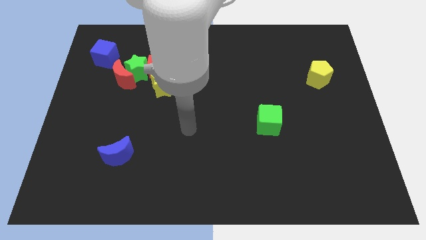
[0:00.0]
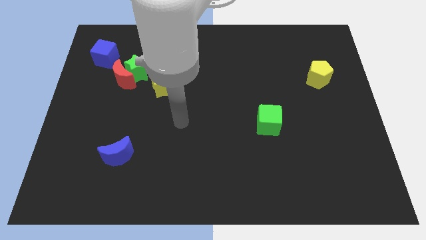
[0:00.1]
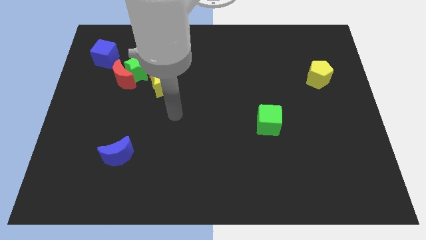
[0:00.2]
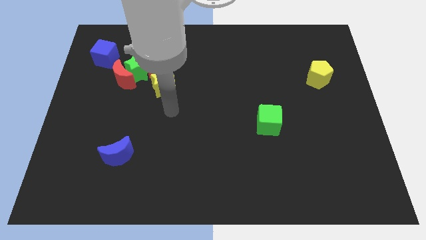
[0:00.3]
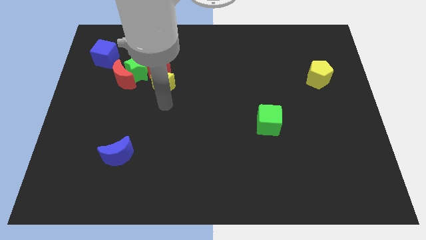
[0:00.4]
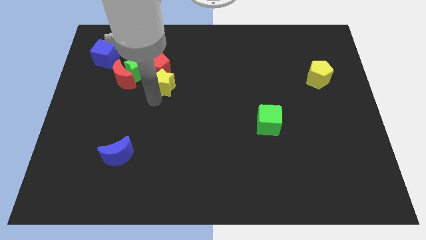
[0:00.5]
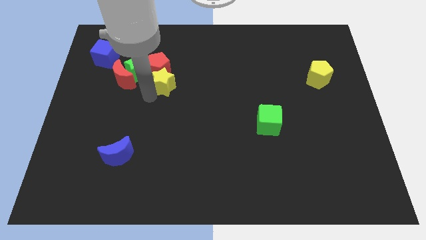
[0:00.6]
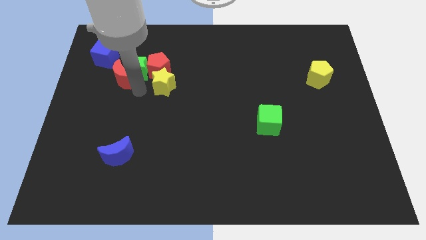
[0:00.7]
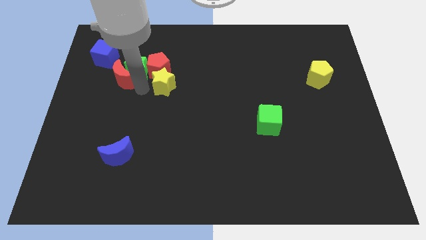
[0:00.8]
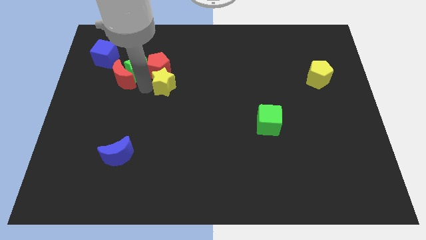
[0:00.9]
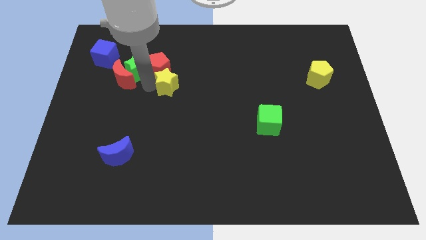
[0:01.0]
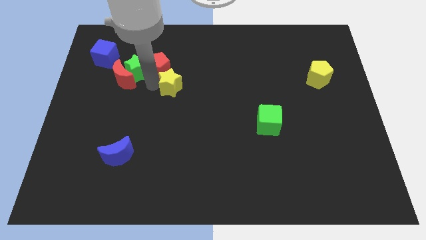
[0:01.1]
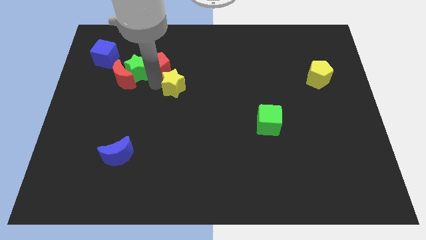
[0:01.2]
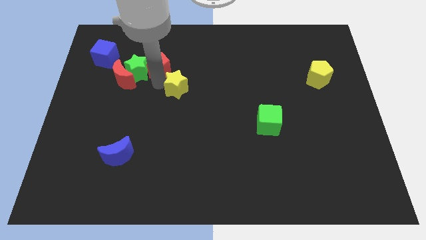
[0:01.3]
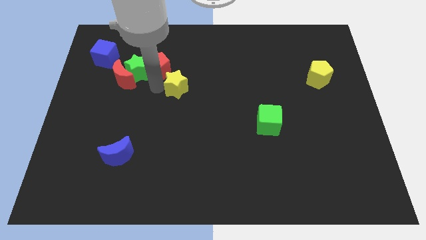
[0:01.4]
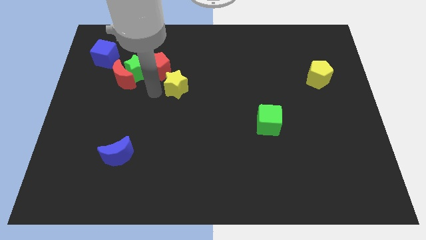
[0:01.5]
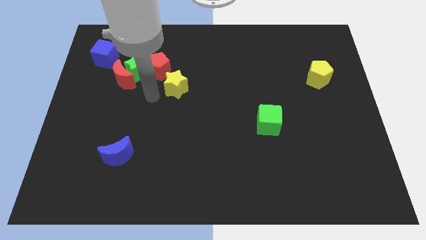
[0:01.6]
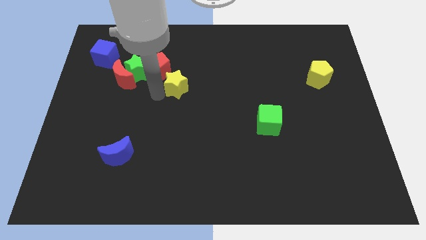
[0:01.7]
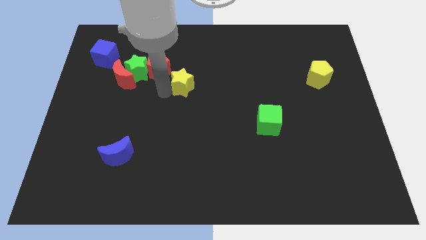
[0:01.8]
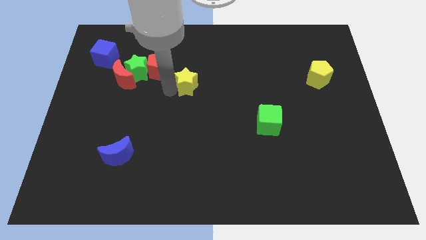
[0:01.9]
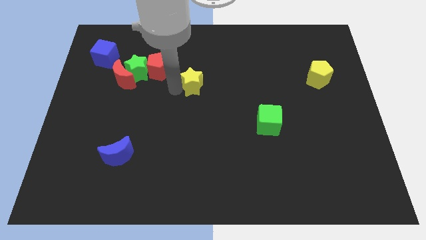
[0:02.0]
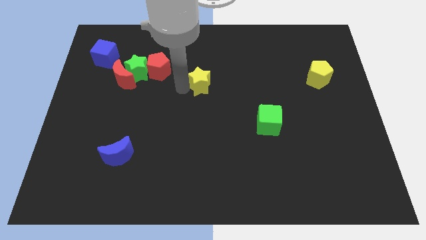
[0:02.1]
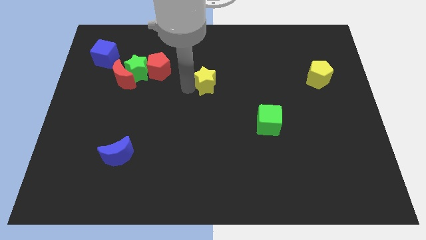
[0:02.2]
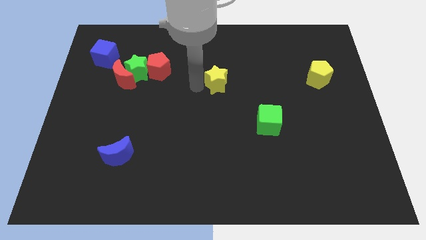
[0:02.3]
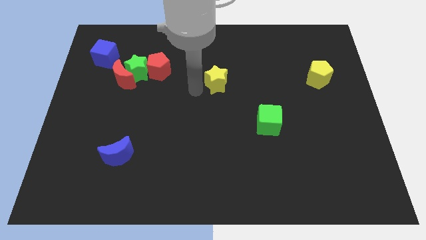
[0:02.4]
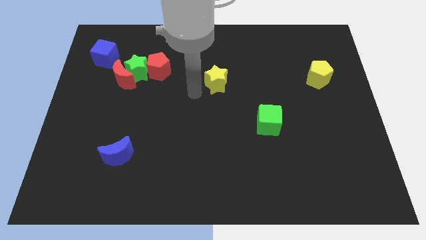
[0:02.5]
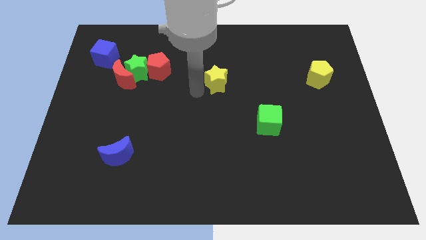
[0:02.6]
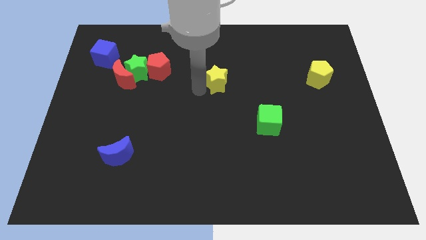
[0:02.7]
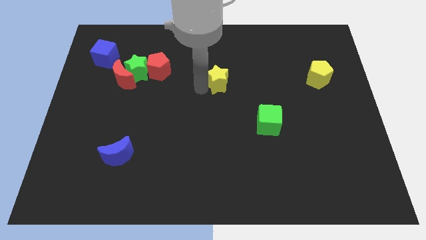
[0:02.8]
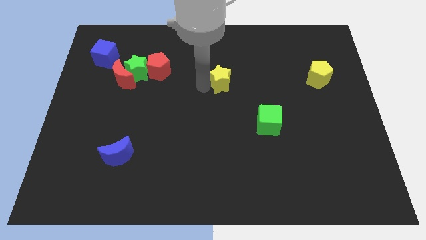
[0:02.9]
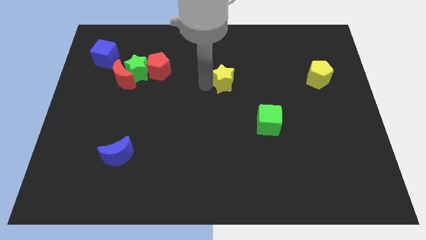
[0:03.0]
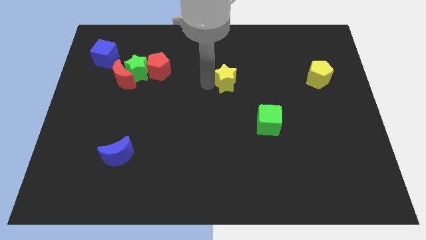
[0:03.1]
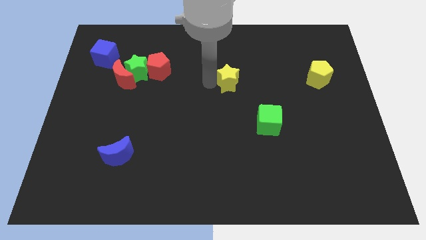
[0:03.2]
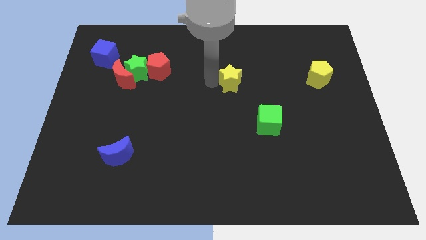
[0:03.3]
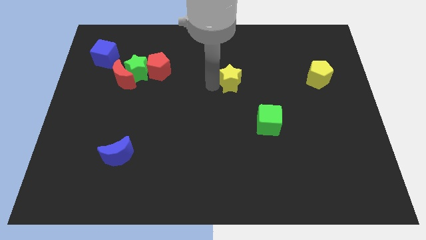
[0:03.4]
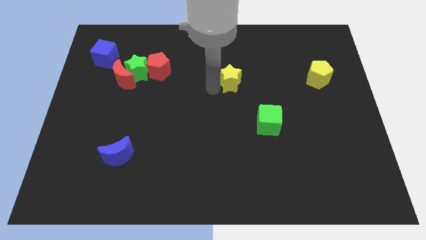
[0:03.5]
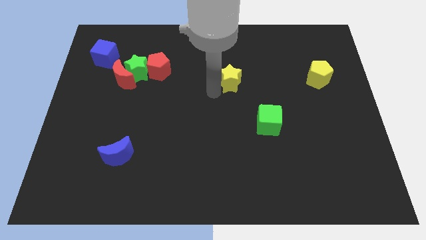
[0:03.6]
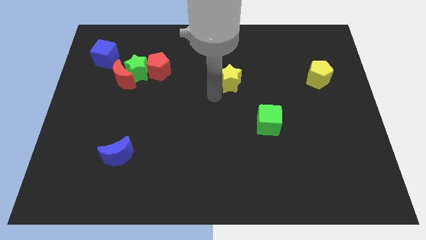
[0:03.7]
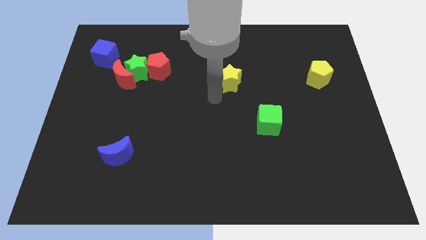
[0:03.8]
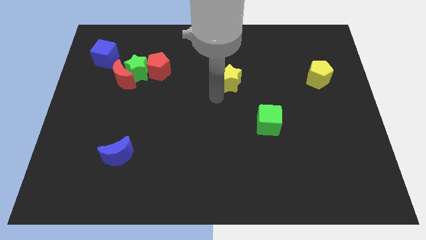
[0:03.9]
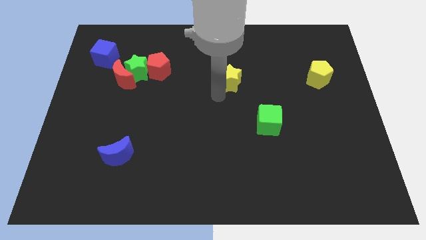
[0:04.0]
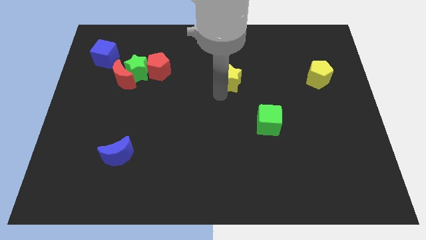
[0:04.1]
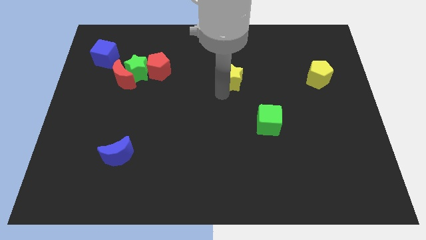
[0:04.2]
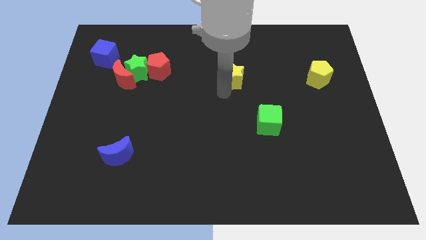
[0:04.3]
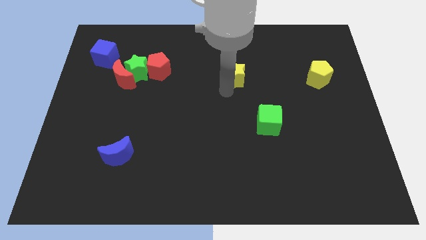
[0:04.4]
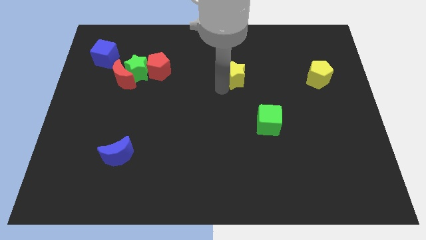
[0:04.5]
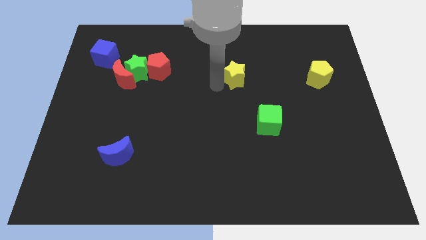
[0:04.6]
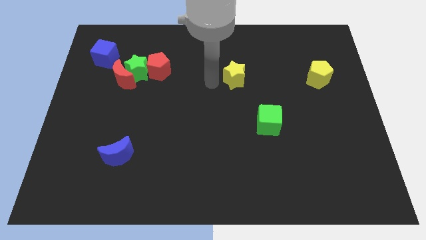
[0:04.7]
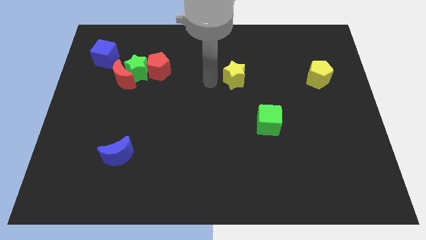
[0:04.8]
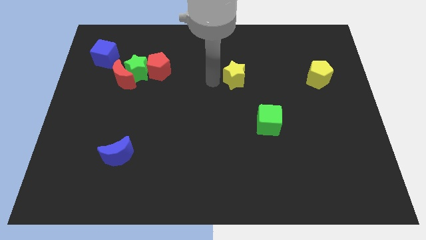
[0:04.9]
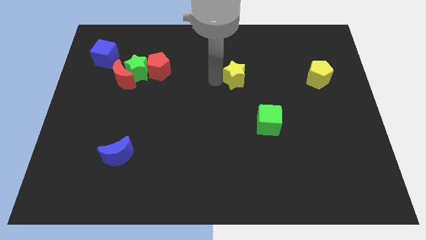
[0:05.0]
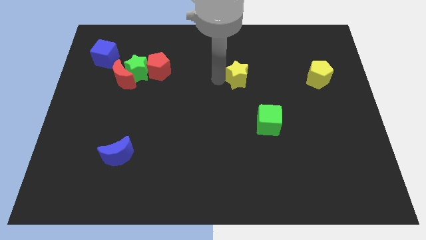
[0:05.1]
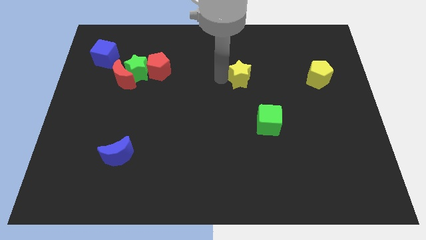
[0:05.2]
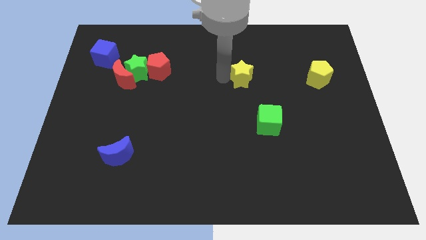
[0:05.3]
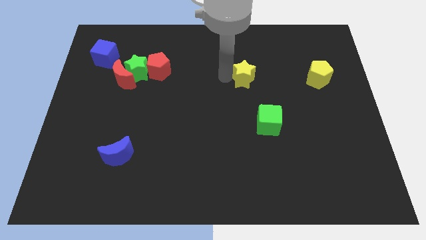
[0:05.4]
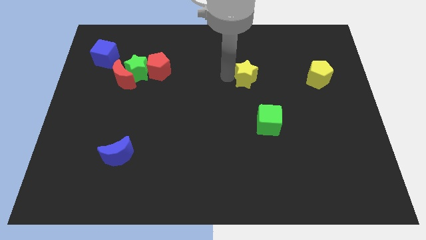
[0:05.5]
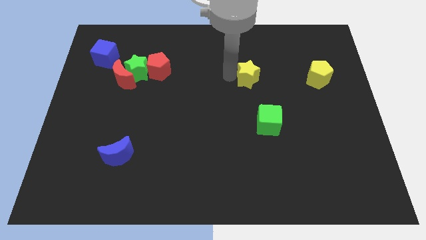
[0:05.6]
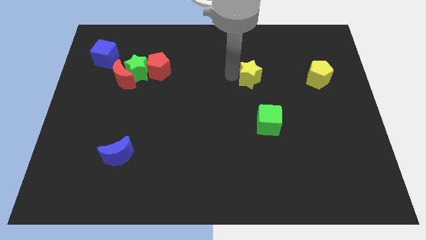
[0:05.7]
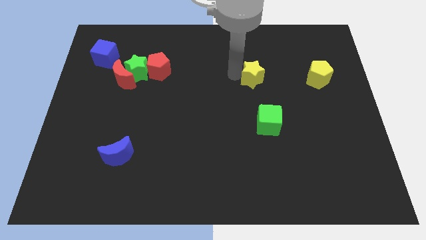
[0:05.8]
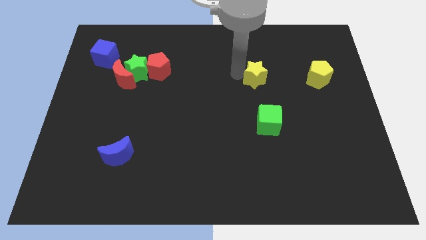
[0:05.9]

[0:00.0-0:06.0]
slide the yellow star left of the yellow pentagon

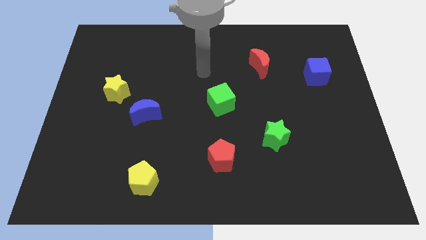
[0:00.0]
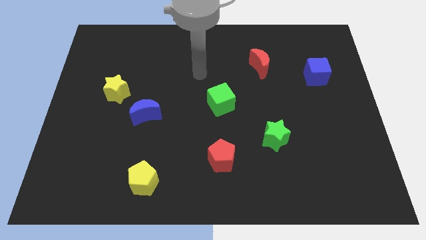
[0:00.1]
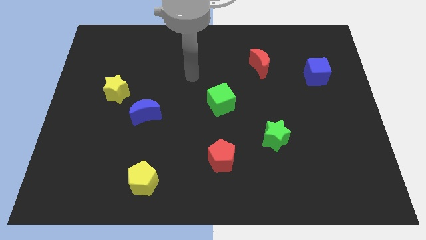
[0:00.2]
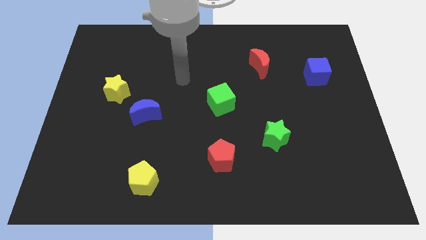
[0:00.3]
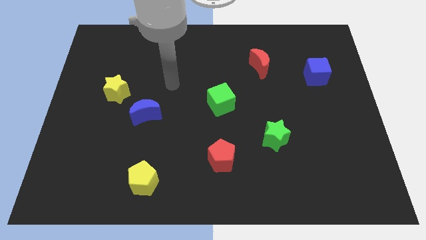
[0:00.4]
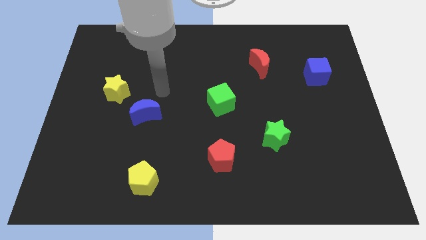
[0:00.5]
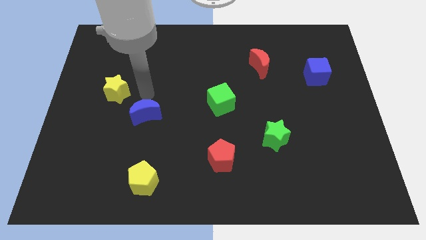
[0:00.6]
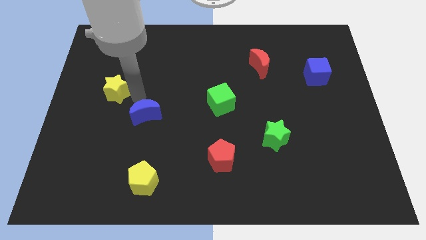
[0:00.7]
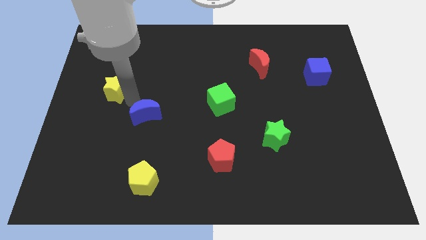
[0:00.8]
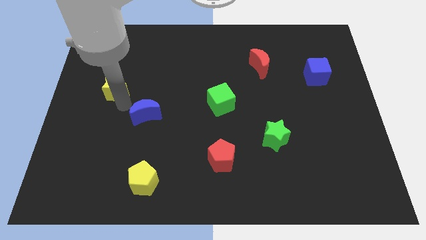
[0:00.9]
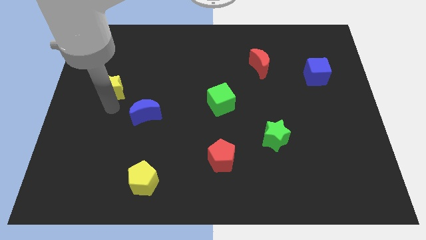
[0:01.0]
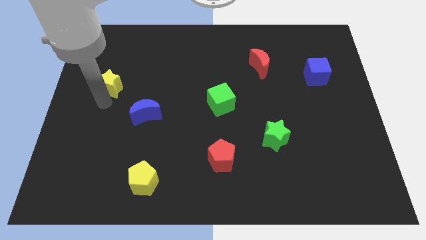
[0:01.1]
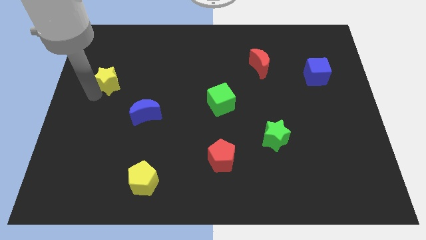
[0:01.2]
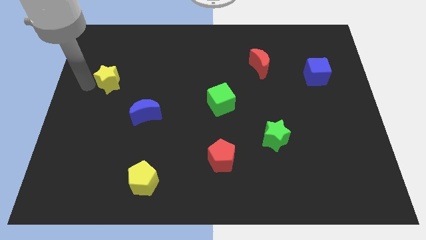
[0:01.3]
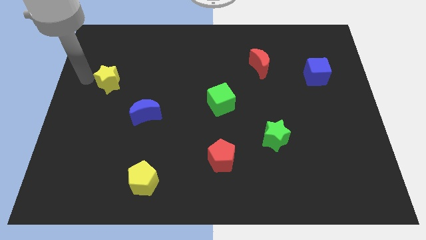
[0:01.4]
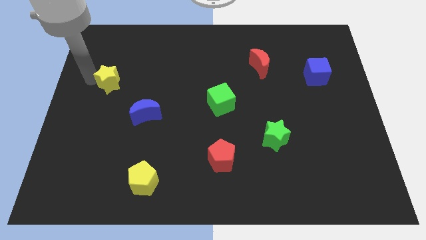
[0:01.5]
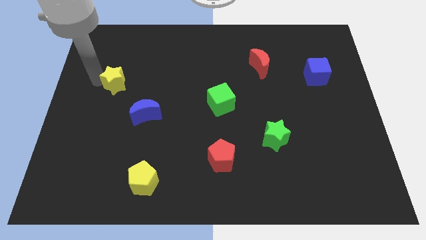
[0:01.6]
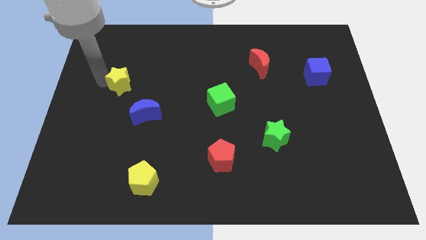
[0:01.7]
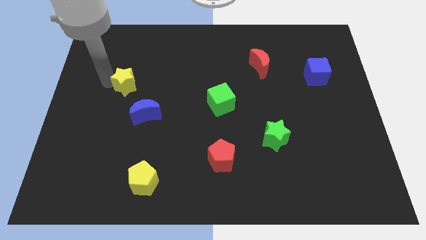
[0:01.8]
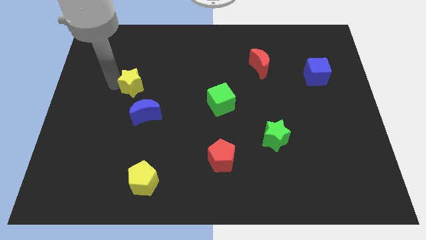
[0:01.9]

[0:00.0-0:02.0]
push the yellow star above the blue moon
